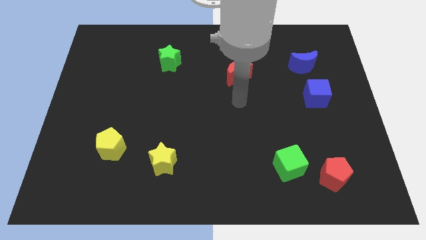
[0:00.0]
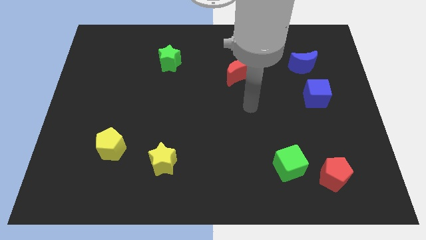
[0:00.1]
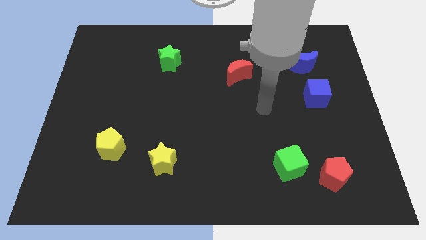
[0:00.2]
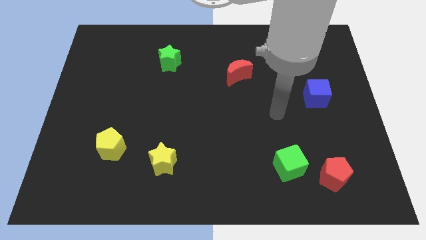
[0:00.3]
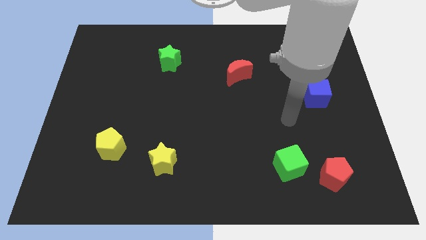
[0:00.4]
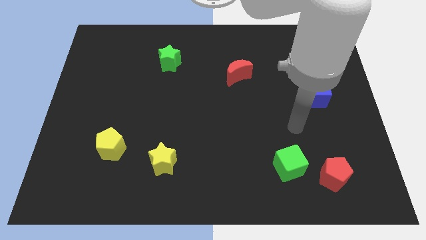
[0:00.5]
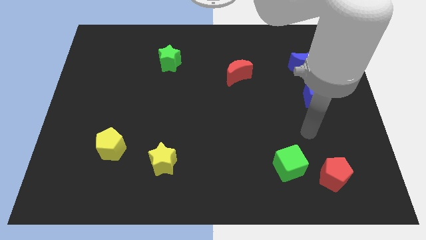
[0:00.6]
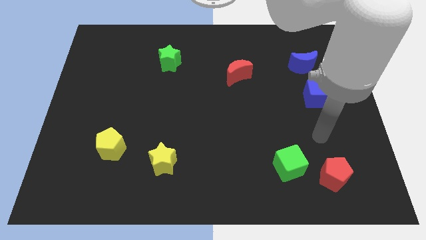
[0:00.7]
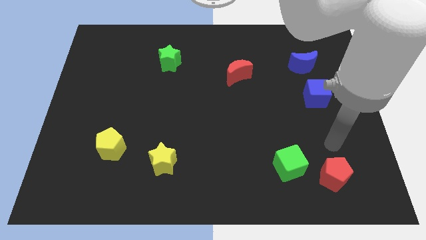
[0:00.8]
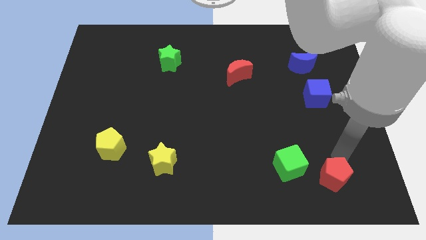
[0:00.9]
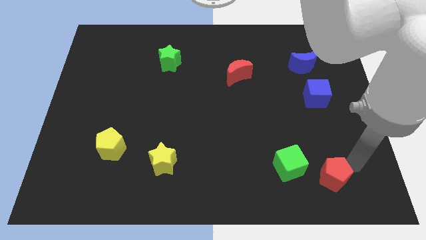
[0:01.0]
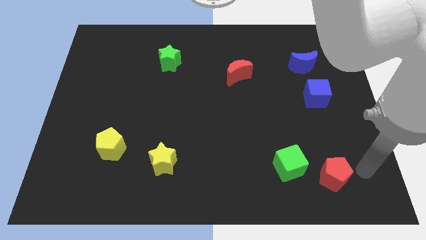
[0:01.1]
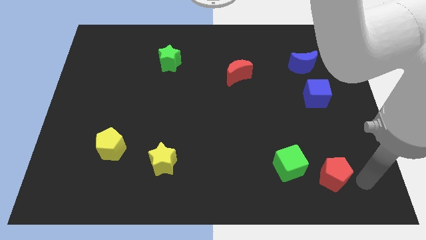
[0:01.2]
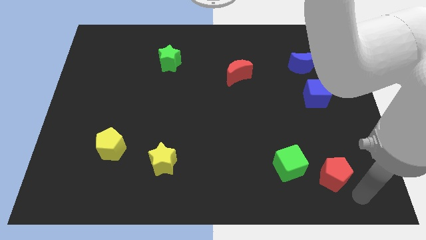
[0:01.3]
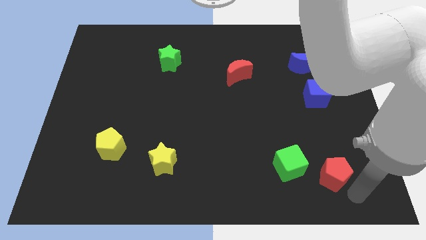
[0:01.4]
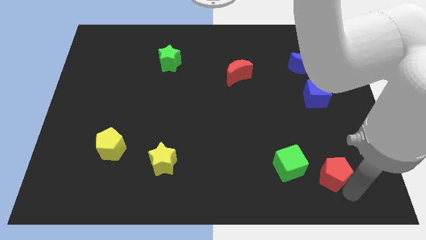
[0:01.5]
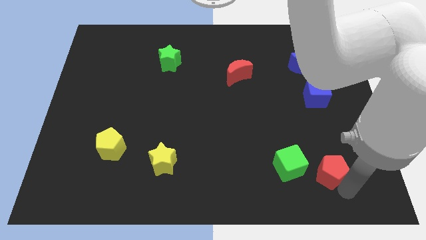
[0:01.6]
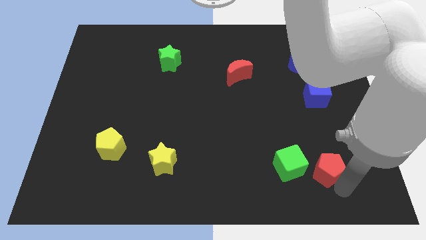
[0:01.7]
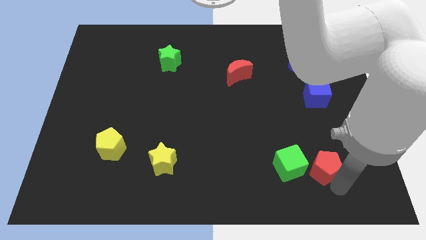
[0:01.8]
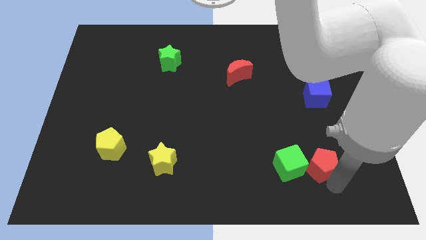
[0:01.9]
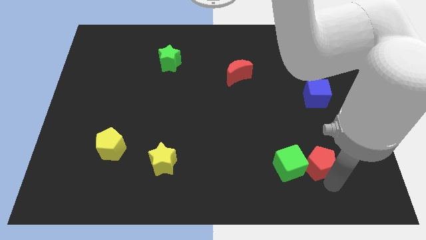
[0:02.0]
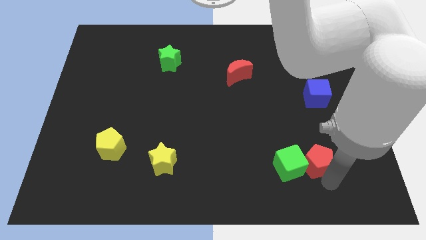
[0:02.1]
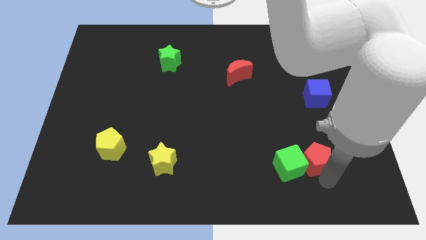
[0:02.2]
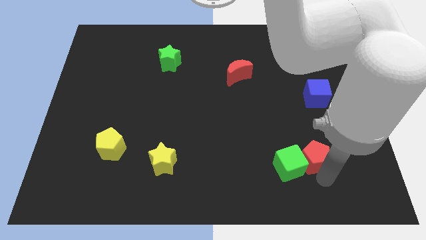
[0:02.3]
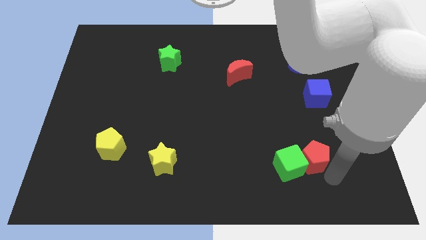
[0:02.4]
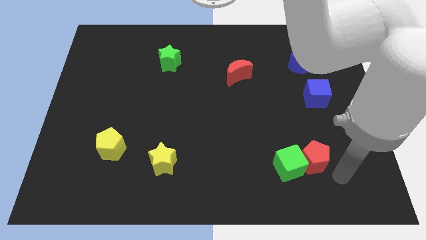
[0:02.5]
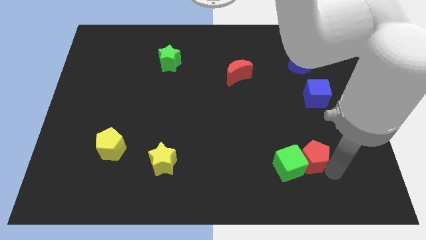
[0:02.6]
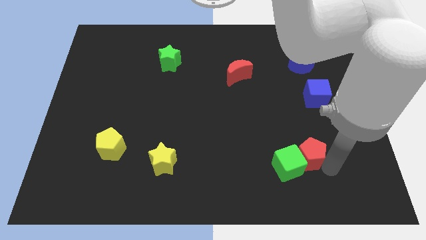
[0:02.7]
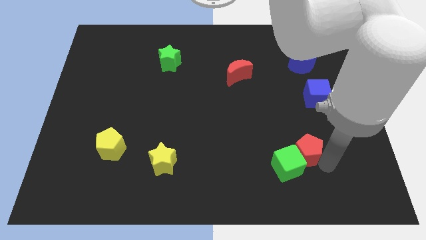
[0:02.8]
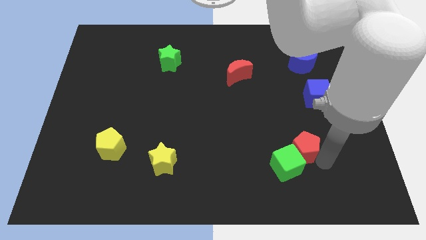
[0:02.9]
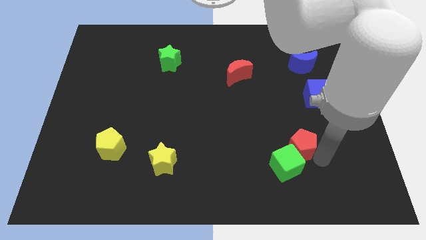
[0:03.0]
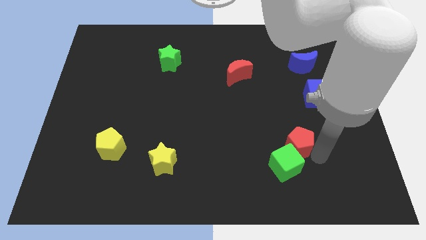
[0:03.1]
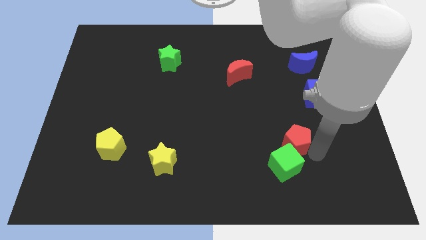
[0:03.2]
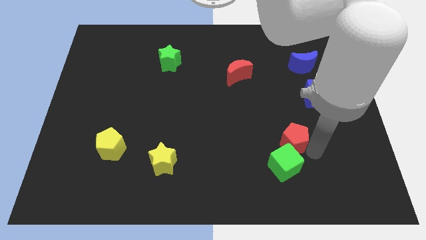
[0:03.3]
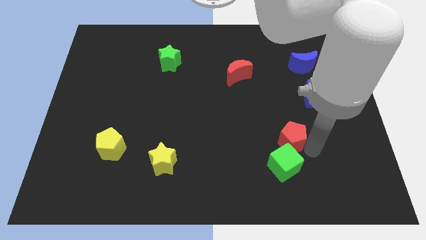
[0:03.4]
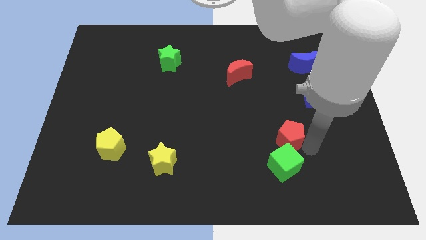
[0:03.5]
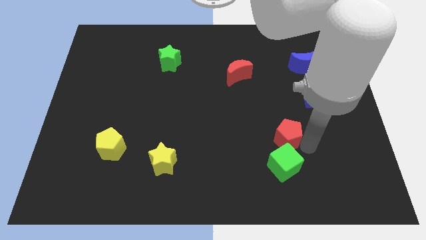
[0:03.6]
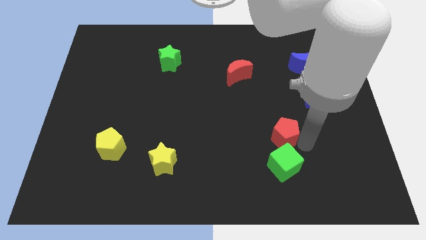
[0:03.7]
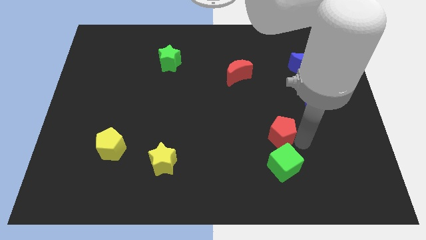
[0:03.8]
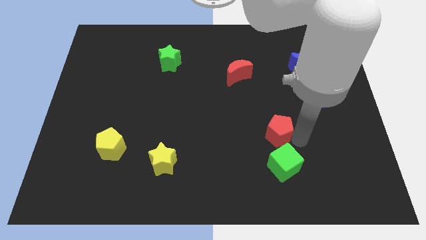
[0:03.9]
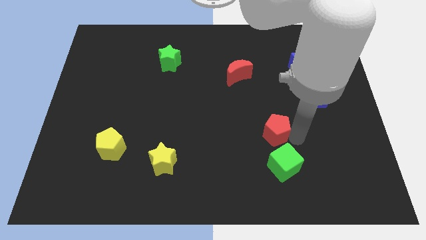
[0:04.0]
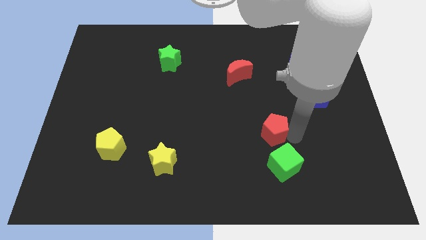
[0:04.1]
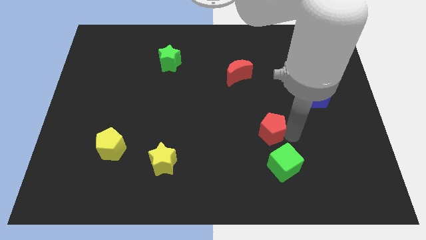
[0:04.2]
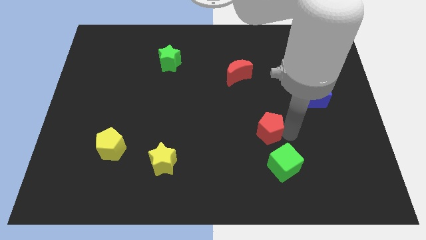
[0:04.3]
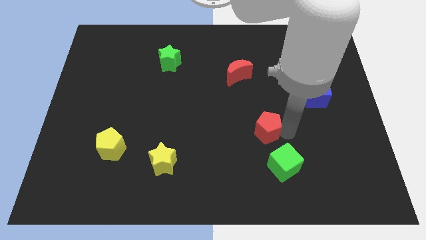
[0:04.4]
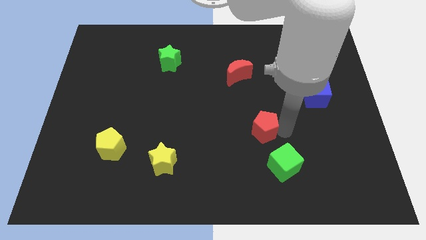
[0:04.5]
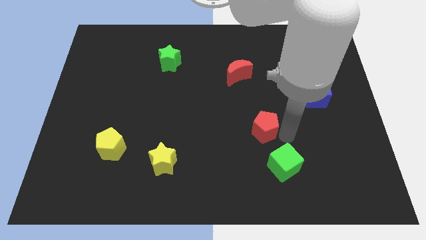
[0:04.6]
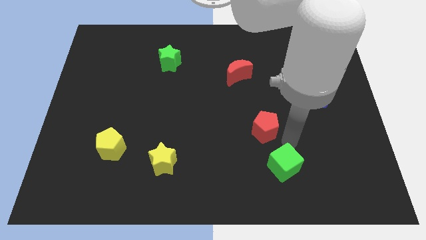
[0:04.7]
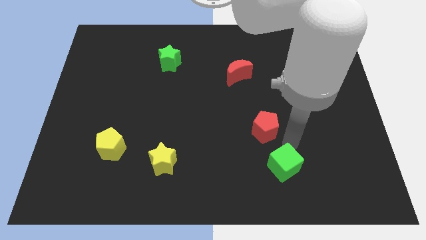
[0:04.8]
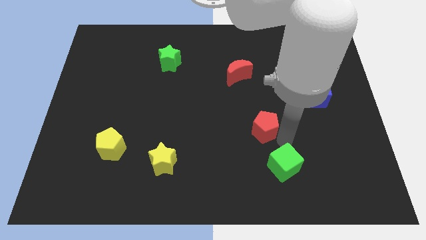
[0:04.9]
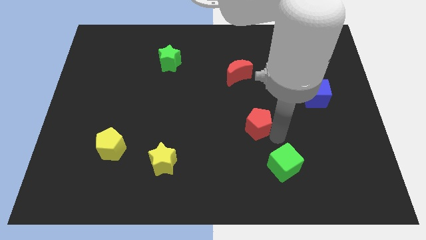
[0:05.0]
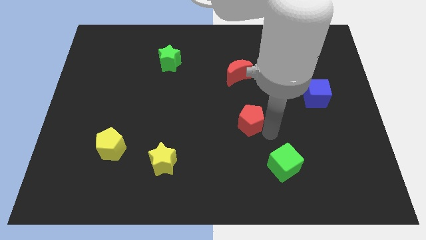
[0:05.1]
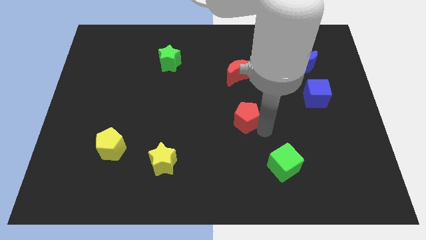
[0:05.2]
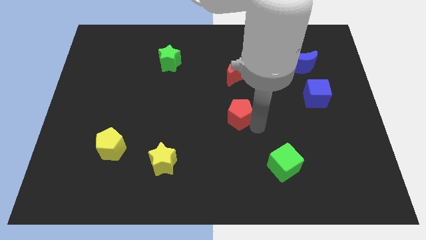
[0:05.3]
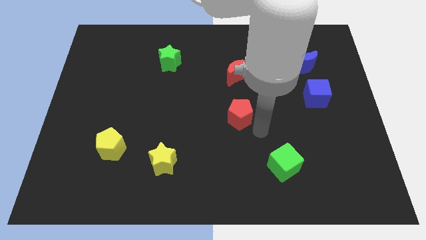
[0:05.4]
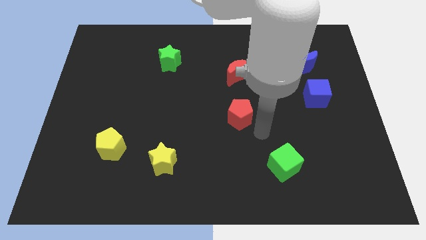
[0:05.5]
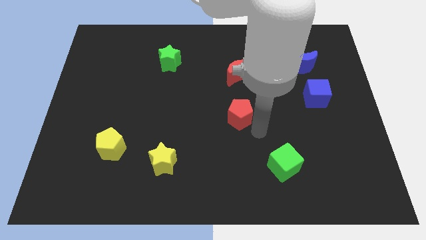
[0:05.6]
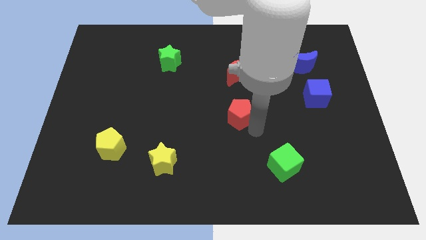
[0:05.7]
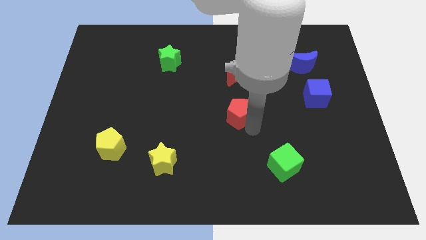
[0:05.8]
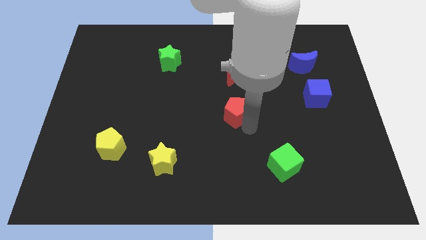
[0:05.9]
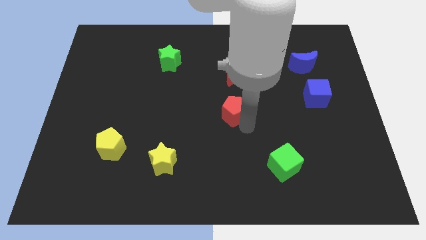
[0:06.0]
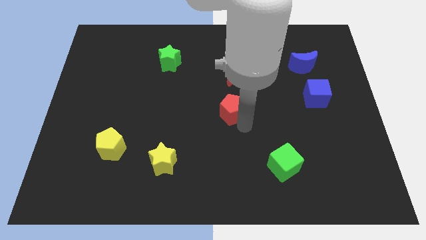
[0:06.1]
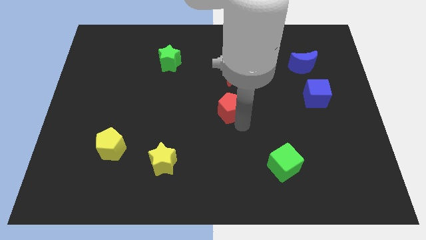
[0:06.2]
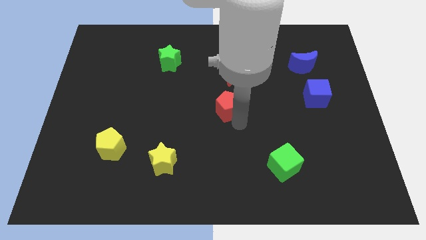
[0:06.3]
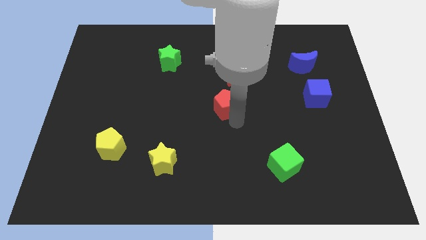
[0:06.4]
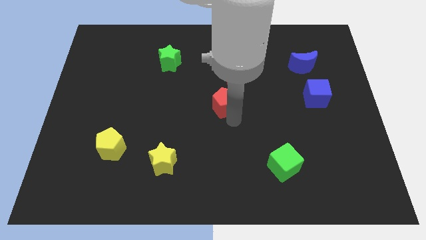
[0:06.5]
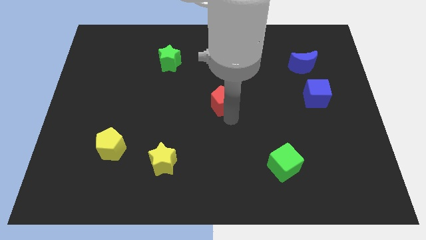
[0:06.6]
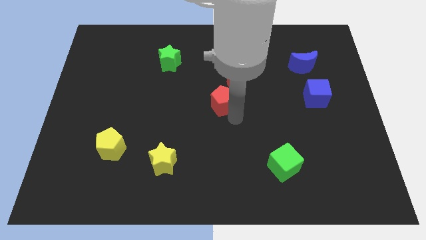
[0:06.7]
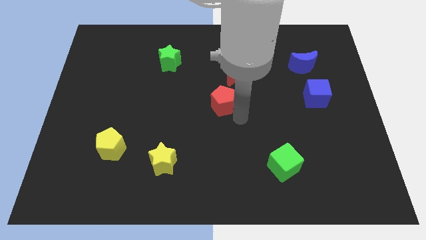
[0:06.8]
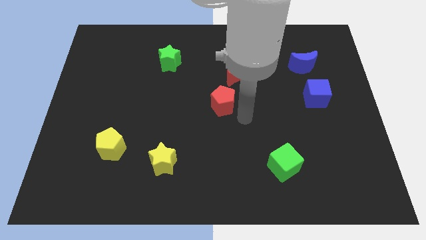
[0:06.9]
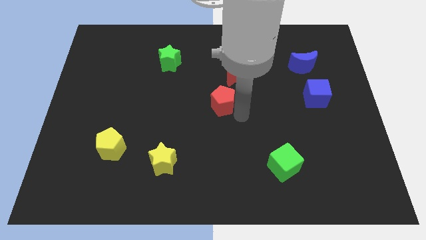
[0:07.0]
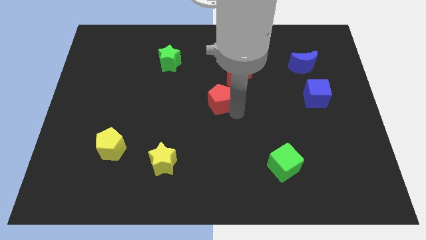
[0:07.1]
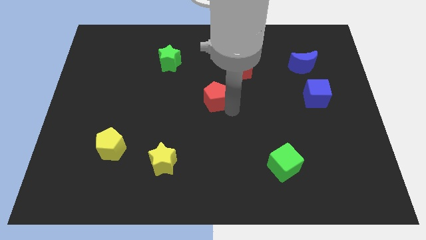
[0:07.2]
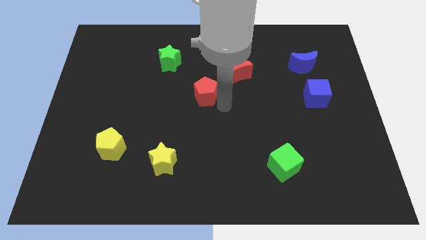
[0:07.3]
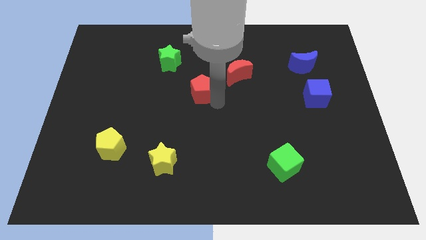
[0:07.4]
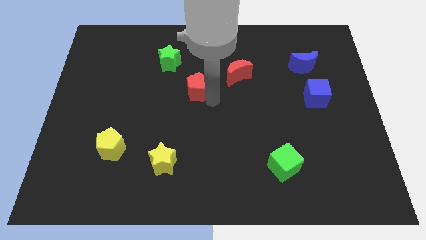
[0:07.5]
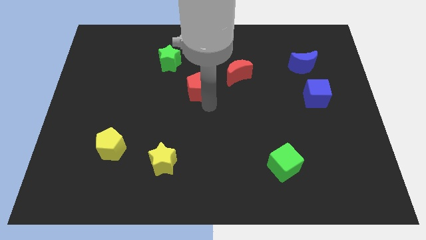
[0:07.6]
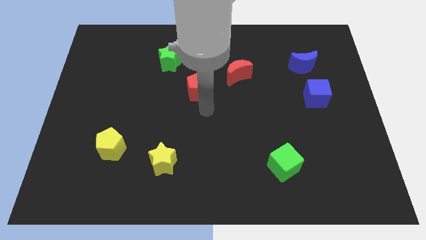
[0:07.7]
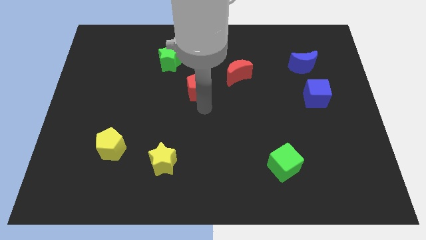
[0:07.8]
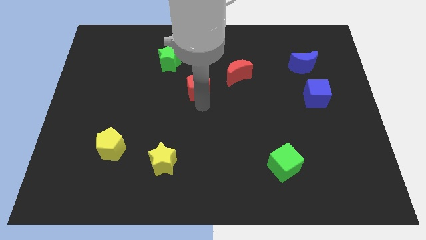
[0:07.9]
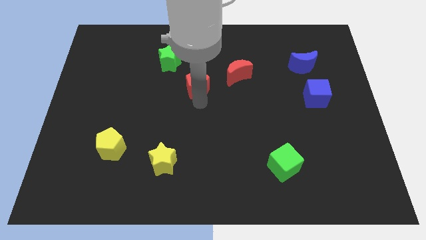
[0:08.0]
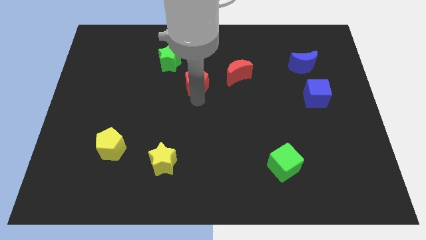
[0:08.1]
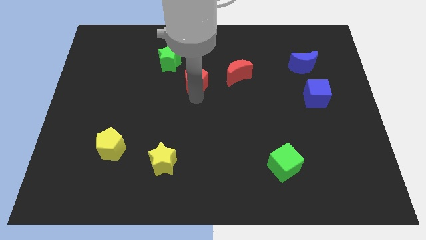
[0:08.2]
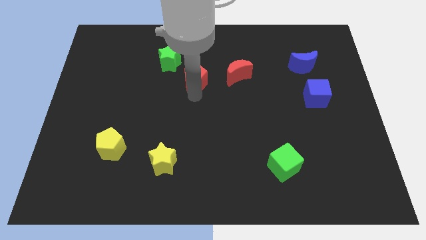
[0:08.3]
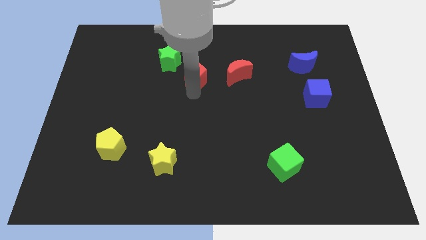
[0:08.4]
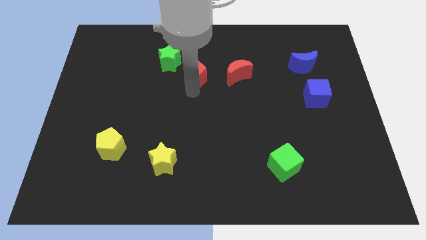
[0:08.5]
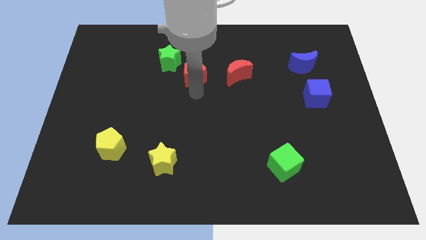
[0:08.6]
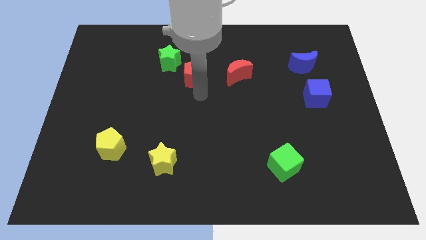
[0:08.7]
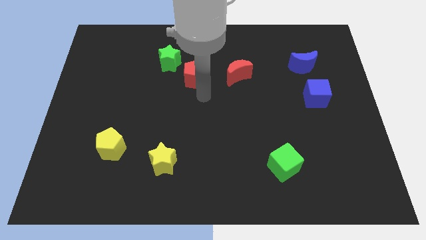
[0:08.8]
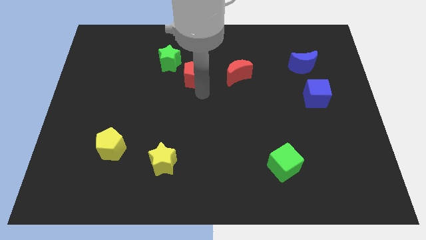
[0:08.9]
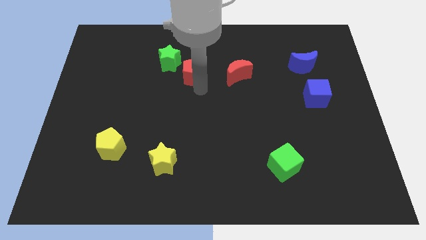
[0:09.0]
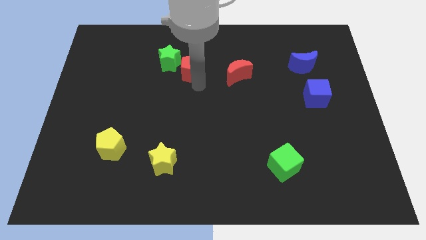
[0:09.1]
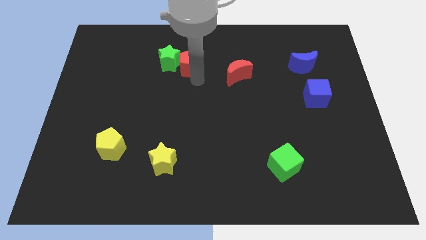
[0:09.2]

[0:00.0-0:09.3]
slide the red pentagon to the green star
